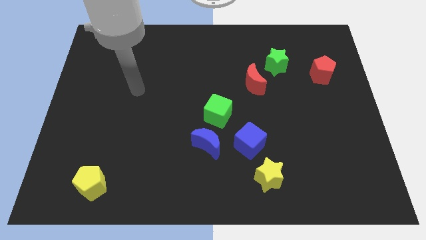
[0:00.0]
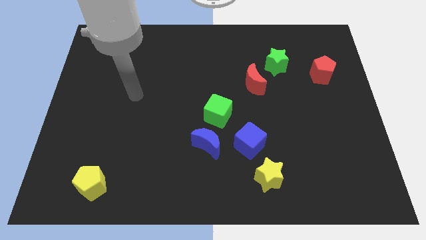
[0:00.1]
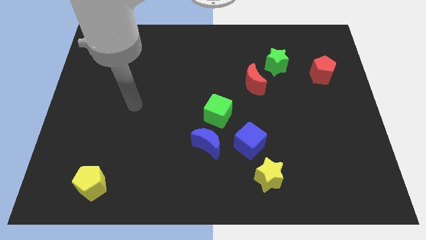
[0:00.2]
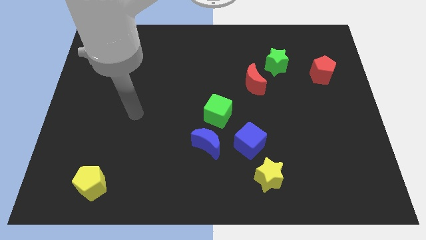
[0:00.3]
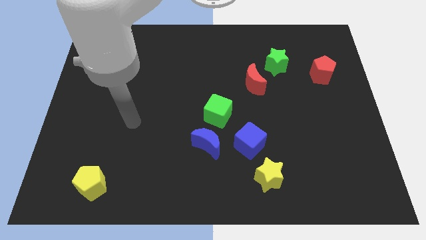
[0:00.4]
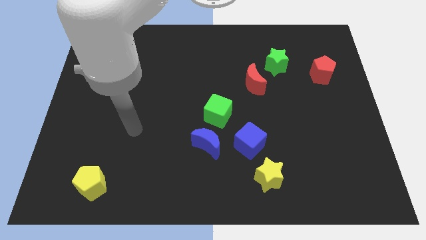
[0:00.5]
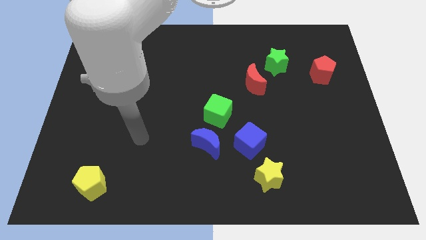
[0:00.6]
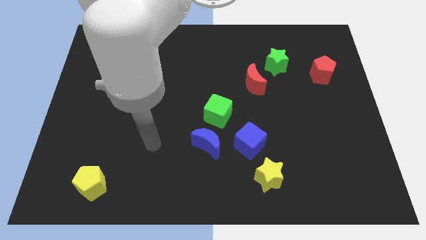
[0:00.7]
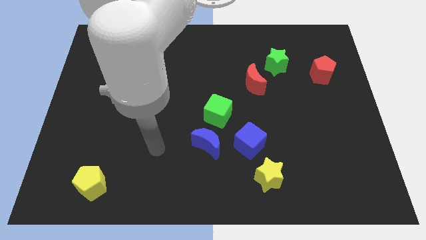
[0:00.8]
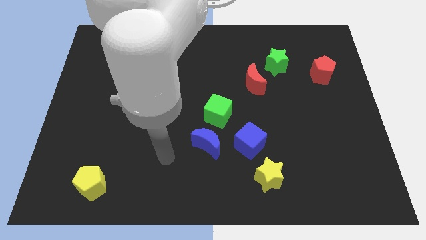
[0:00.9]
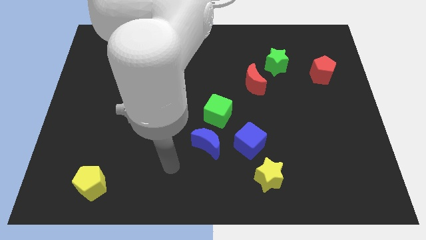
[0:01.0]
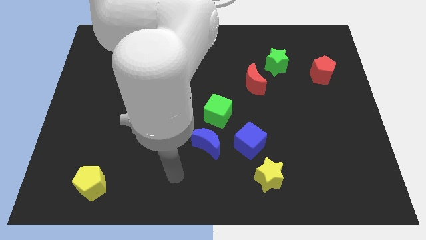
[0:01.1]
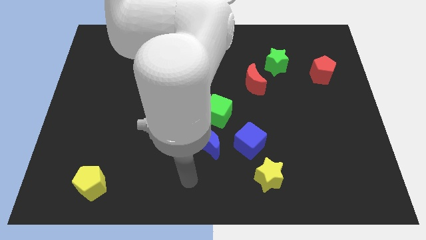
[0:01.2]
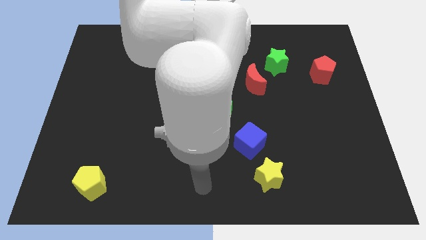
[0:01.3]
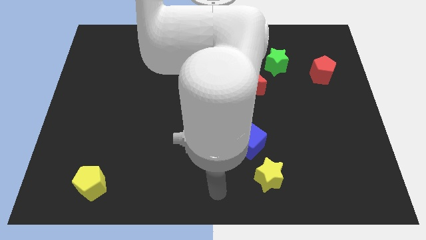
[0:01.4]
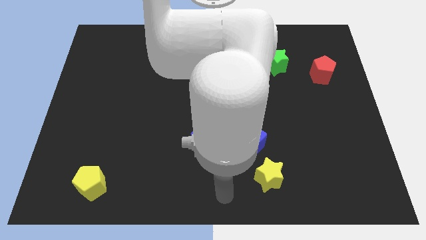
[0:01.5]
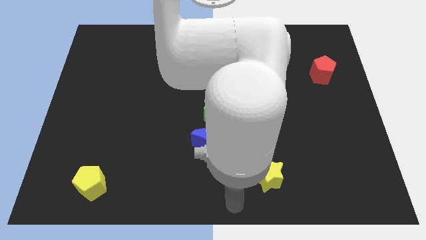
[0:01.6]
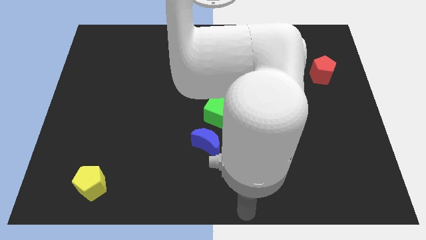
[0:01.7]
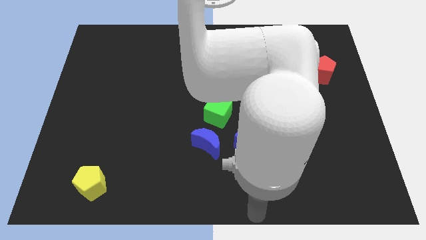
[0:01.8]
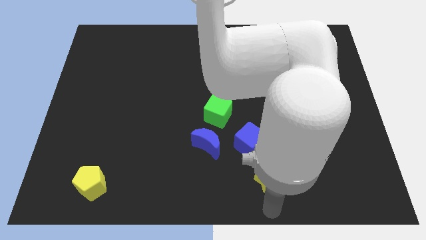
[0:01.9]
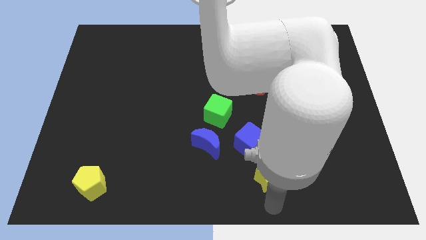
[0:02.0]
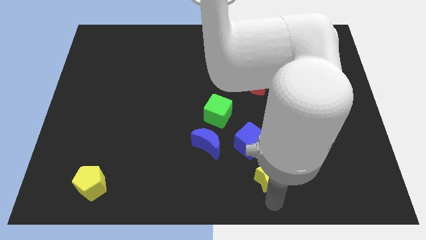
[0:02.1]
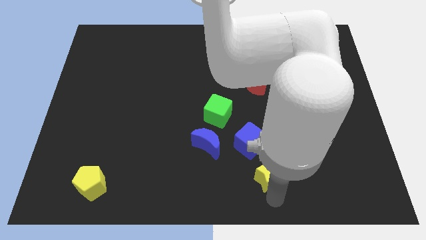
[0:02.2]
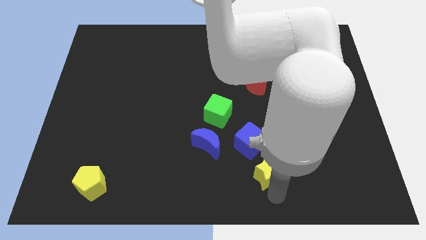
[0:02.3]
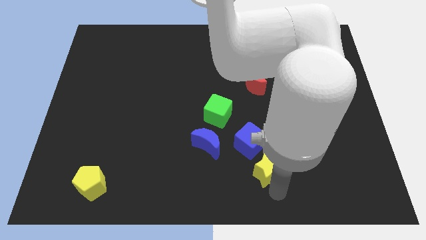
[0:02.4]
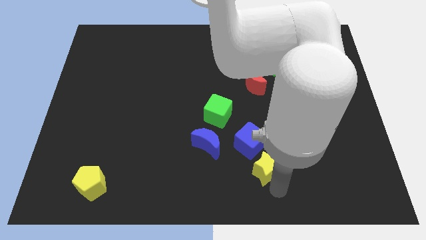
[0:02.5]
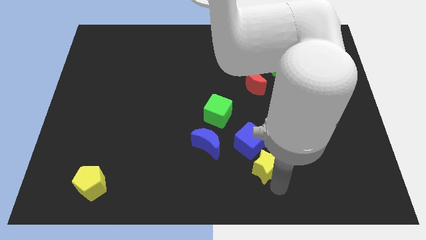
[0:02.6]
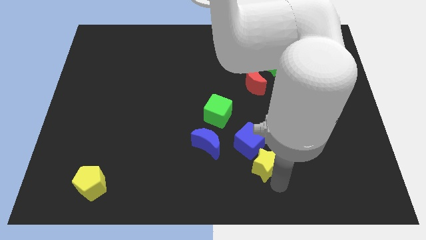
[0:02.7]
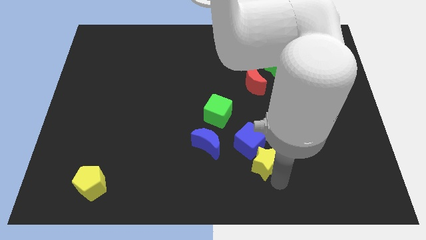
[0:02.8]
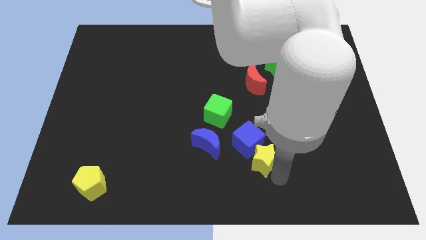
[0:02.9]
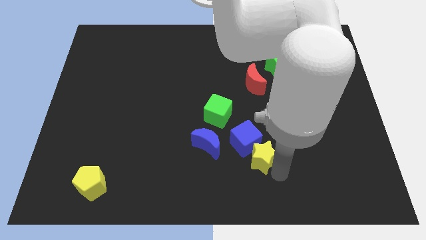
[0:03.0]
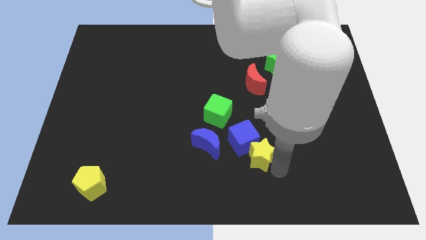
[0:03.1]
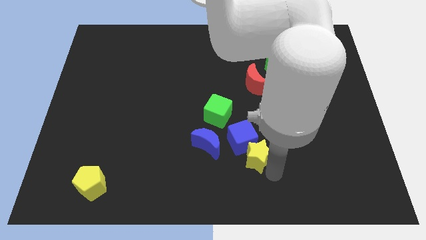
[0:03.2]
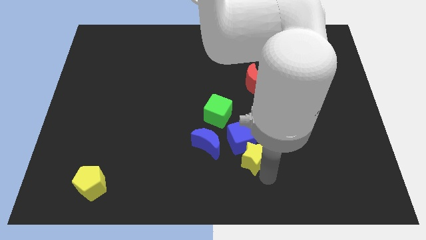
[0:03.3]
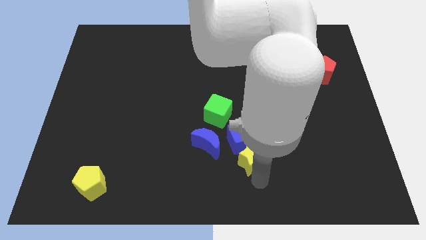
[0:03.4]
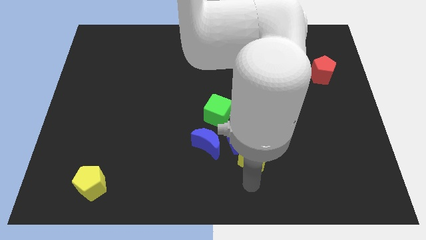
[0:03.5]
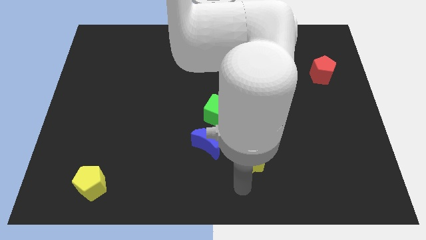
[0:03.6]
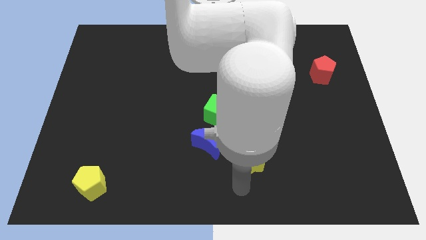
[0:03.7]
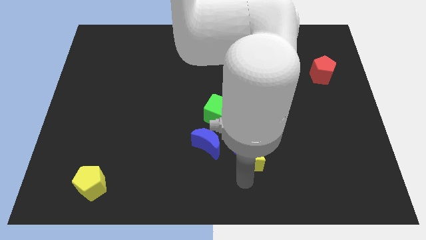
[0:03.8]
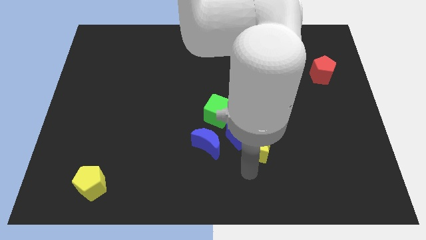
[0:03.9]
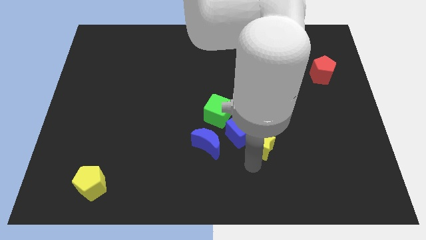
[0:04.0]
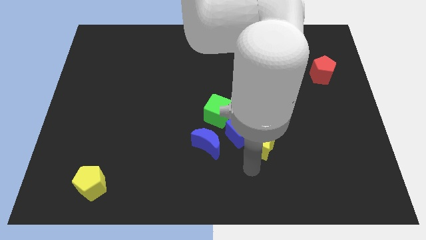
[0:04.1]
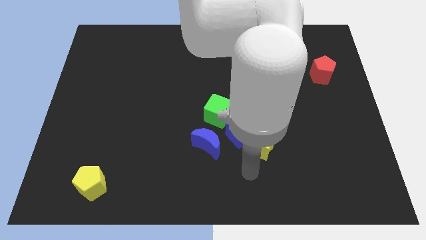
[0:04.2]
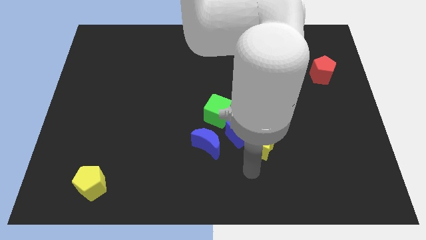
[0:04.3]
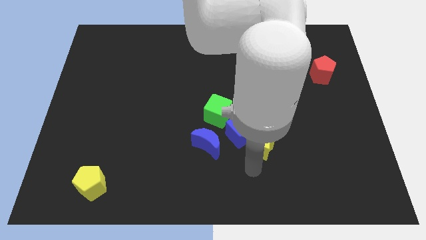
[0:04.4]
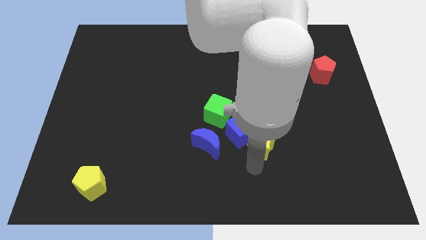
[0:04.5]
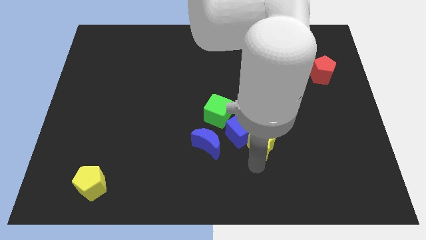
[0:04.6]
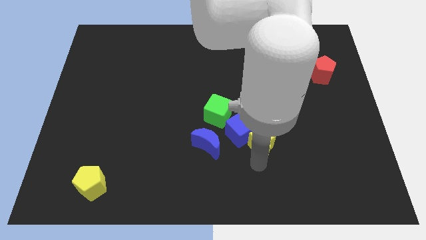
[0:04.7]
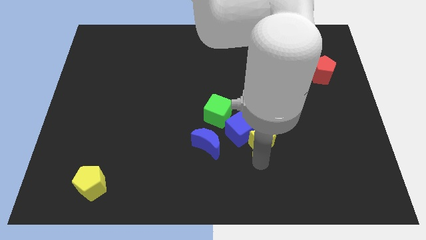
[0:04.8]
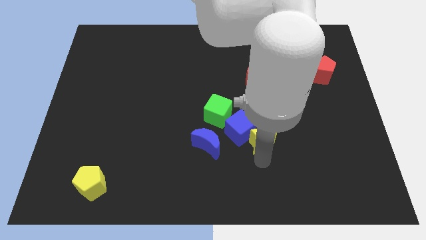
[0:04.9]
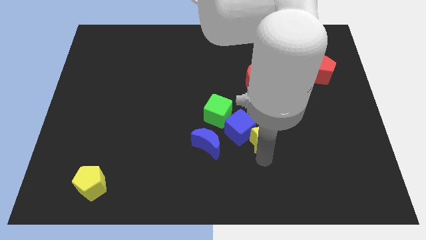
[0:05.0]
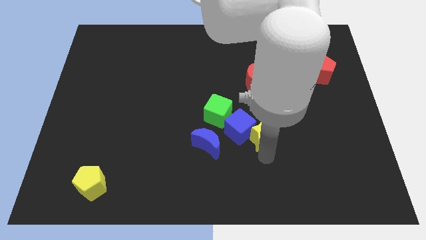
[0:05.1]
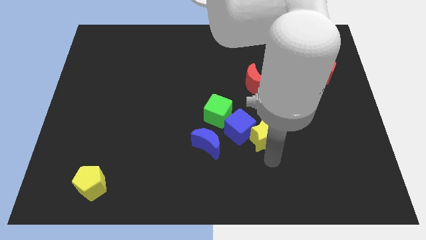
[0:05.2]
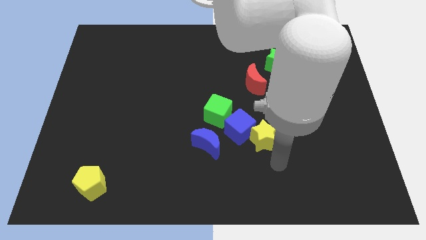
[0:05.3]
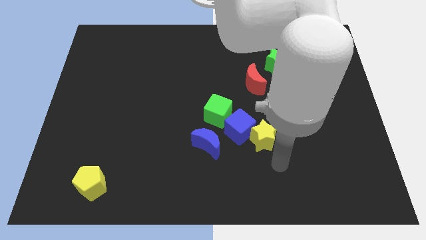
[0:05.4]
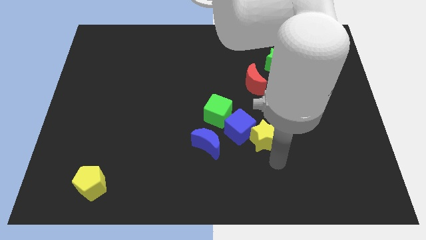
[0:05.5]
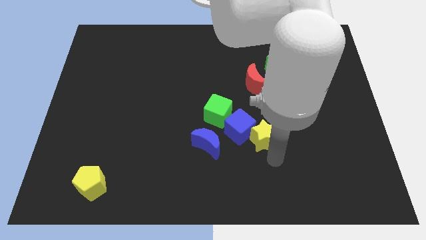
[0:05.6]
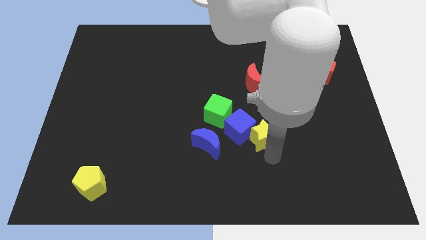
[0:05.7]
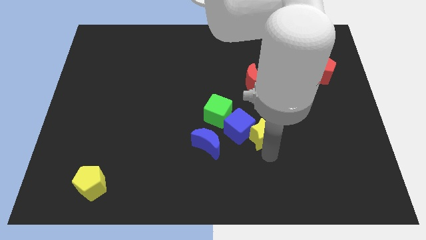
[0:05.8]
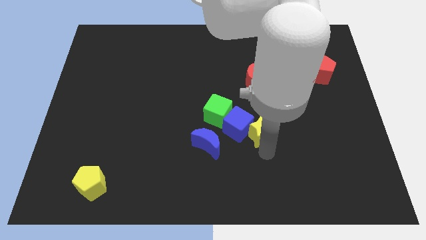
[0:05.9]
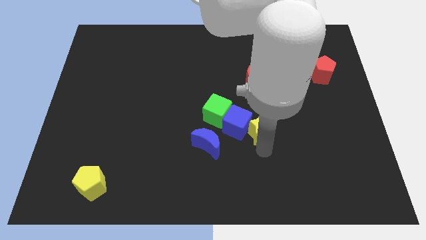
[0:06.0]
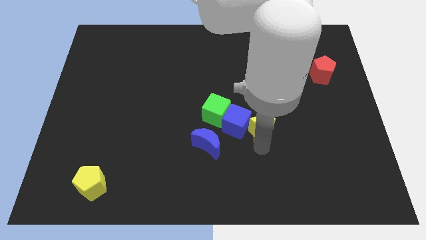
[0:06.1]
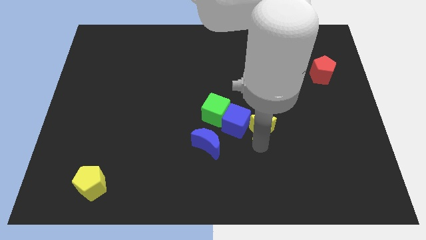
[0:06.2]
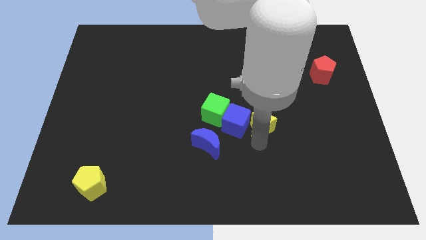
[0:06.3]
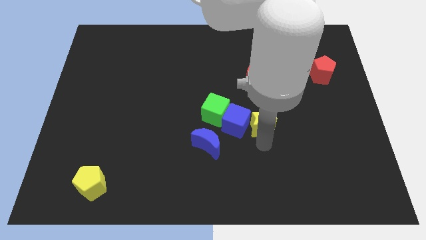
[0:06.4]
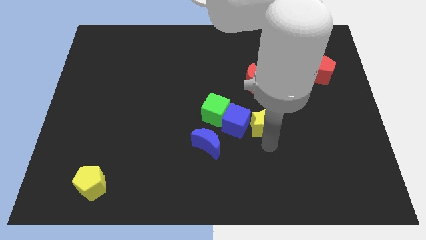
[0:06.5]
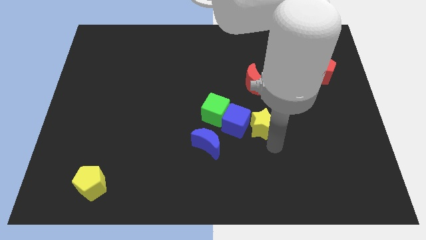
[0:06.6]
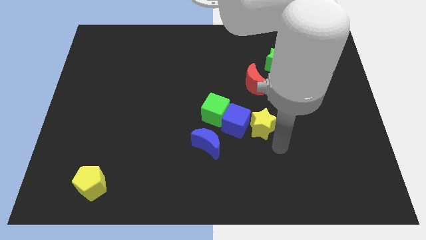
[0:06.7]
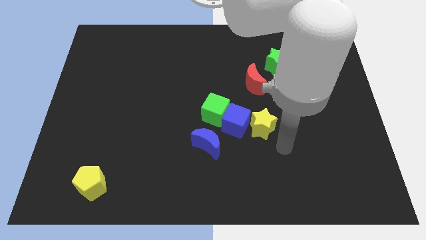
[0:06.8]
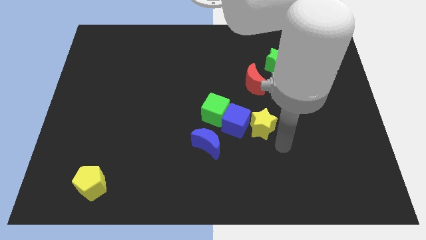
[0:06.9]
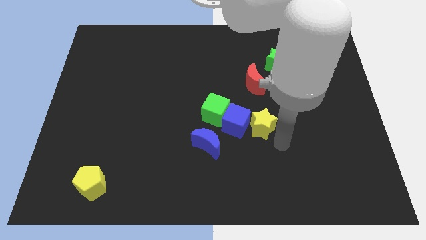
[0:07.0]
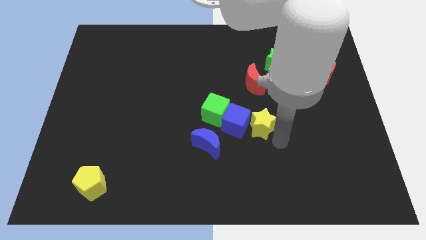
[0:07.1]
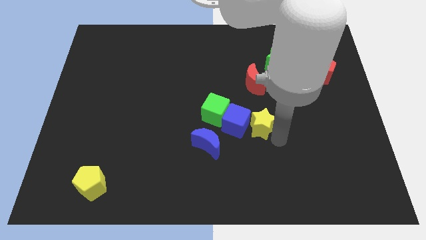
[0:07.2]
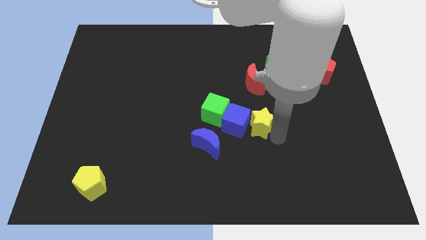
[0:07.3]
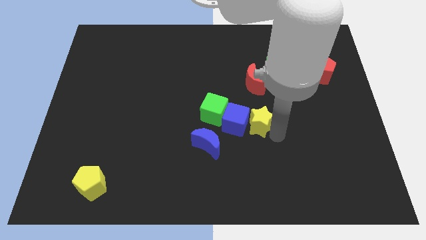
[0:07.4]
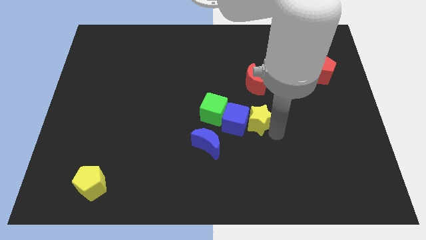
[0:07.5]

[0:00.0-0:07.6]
put the yellow star to the center of the board
